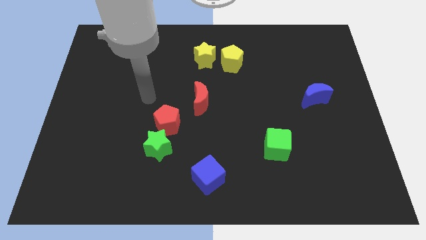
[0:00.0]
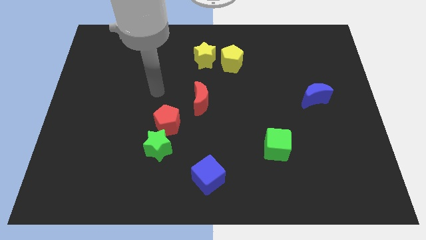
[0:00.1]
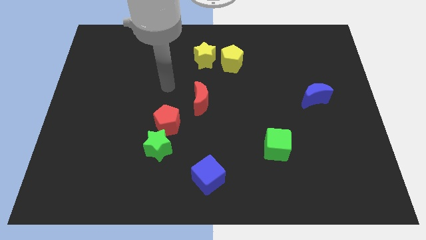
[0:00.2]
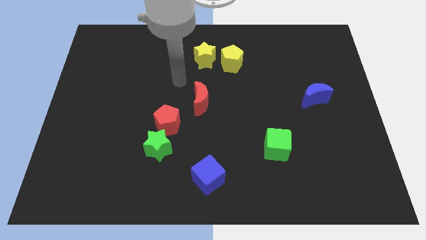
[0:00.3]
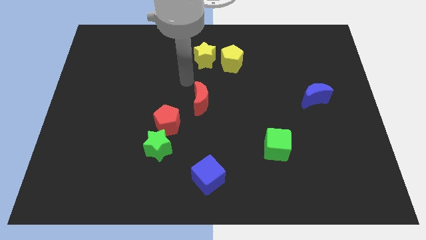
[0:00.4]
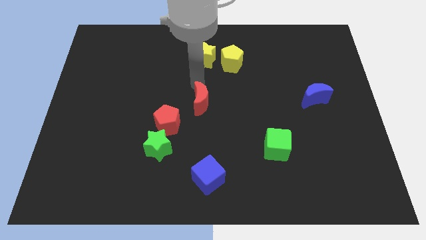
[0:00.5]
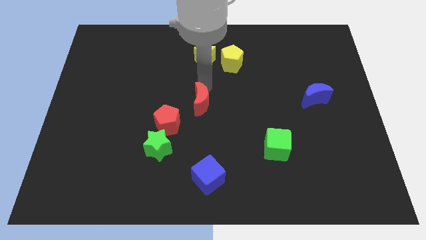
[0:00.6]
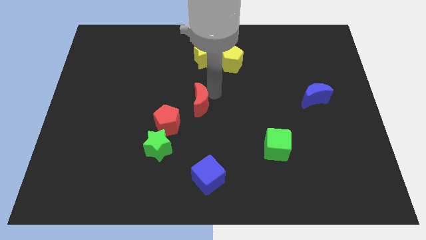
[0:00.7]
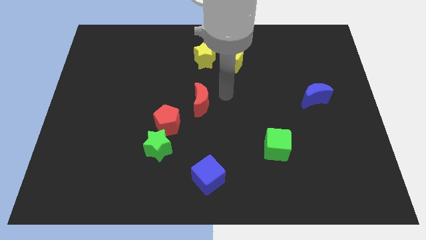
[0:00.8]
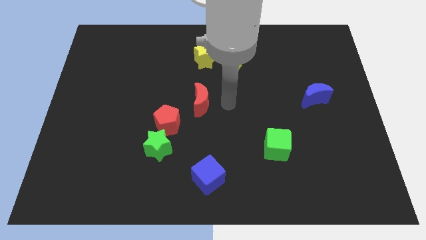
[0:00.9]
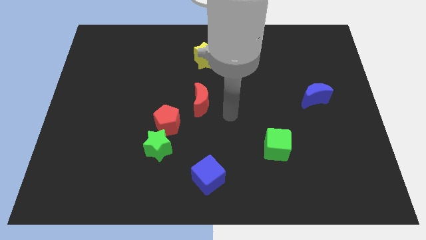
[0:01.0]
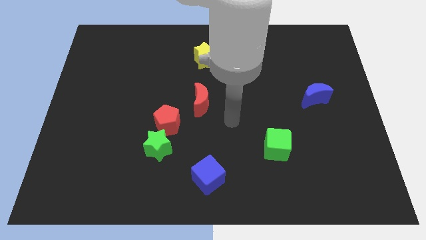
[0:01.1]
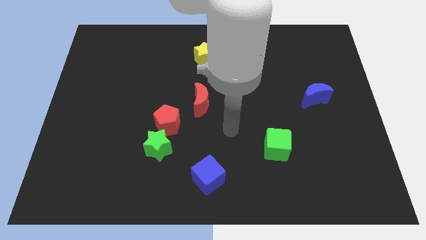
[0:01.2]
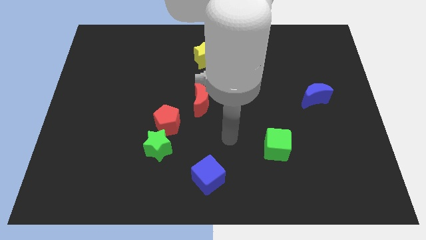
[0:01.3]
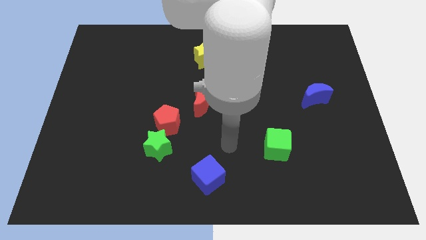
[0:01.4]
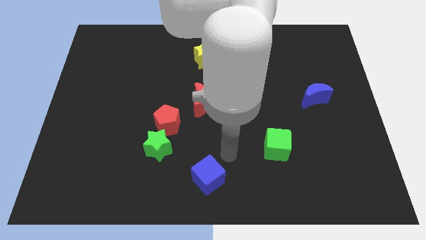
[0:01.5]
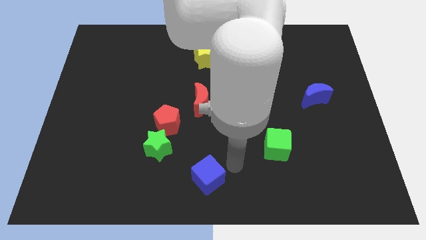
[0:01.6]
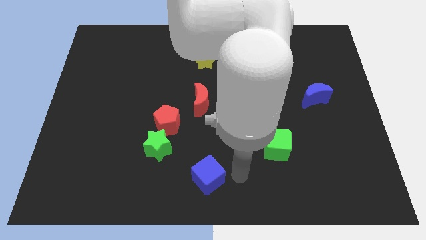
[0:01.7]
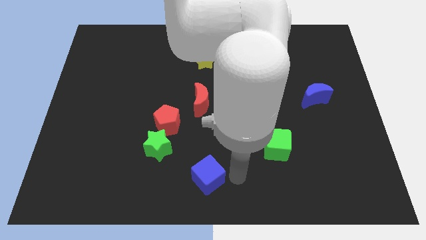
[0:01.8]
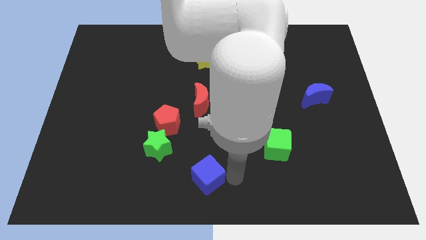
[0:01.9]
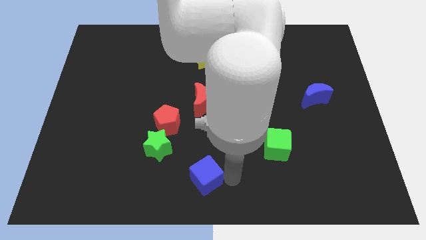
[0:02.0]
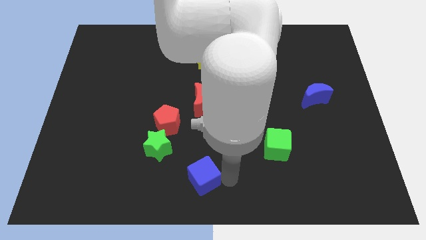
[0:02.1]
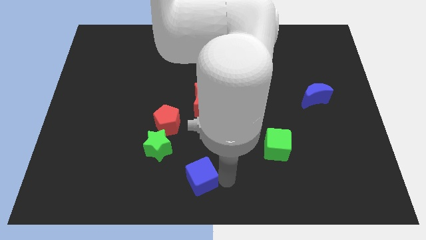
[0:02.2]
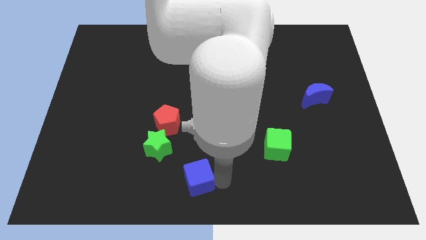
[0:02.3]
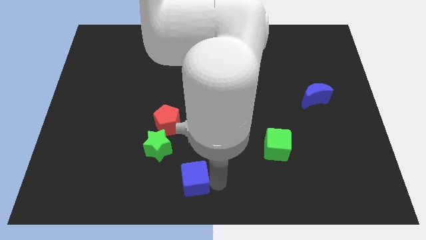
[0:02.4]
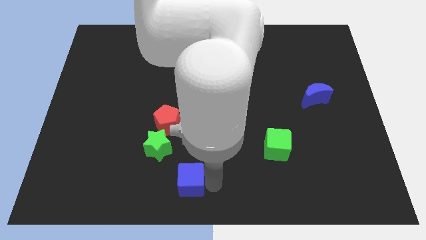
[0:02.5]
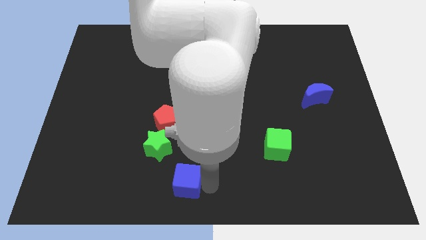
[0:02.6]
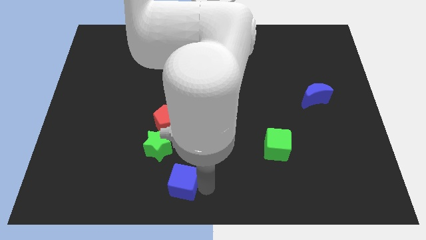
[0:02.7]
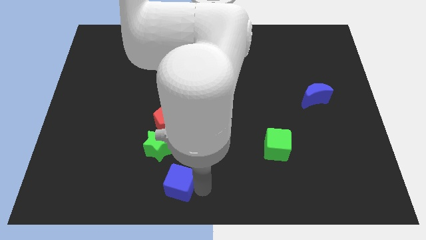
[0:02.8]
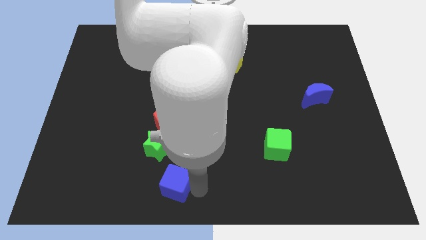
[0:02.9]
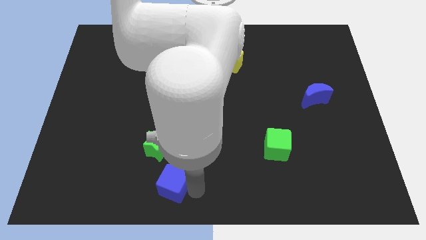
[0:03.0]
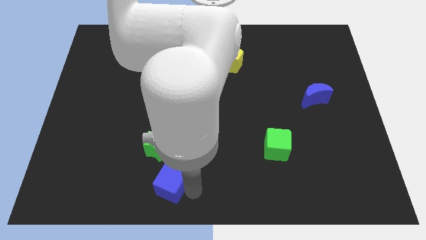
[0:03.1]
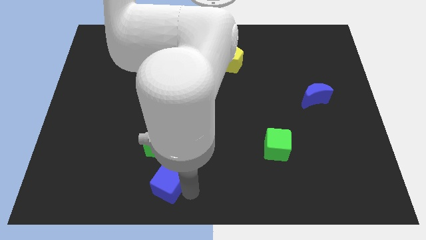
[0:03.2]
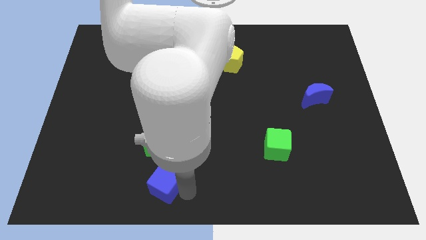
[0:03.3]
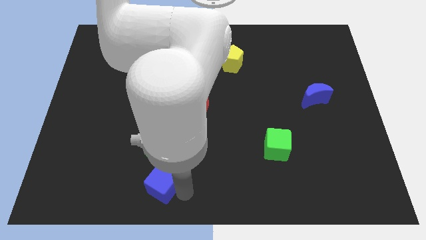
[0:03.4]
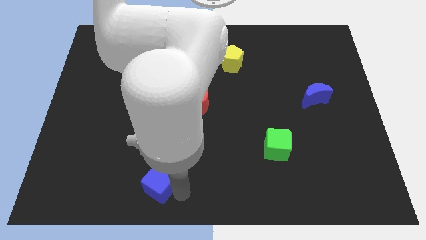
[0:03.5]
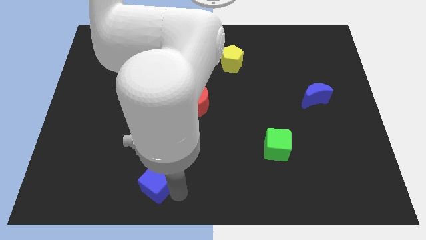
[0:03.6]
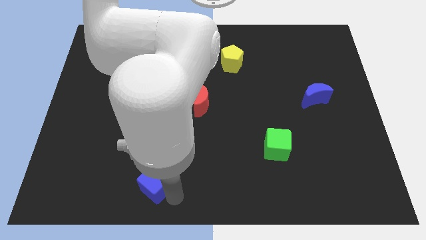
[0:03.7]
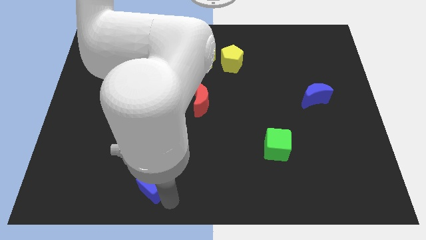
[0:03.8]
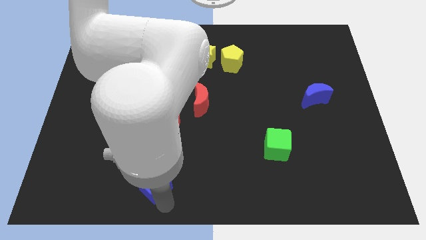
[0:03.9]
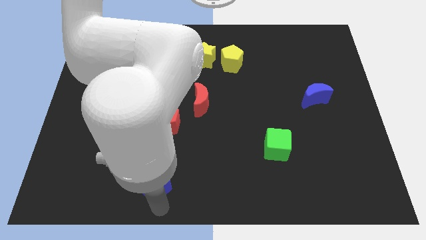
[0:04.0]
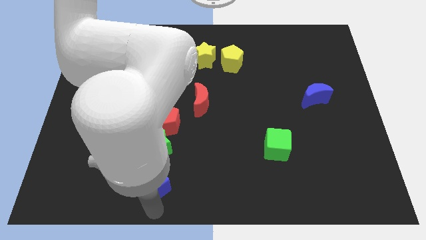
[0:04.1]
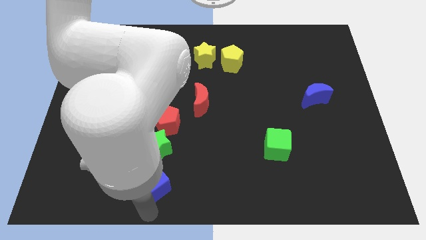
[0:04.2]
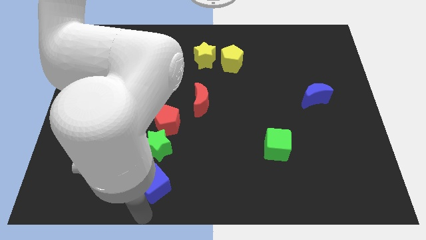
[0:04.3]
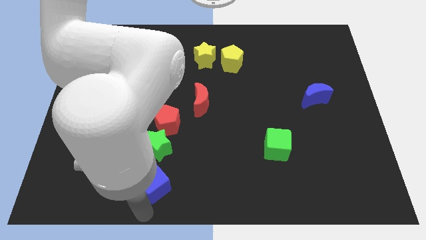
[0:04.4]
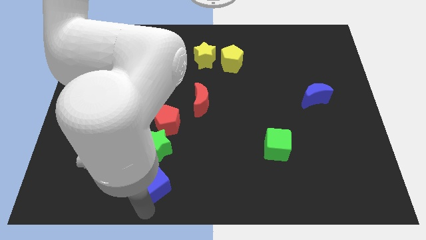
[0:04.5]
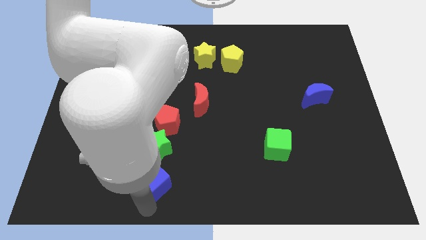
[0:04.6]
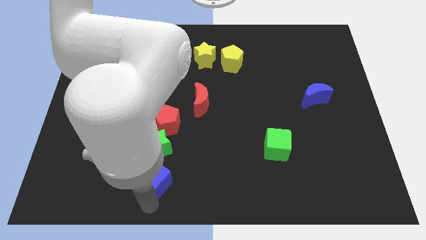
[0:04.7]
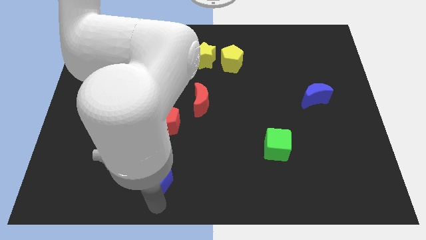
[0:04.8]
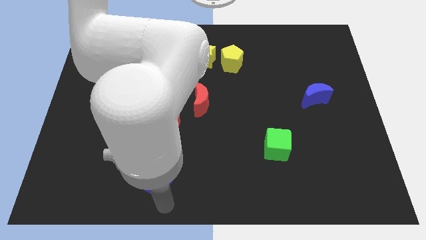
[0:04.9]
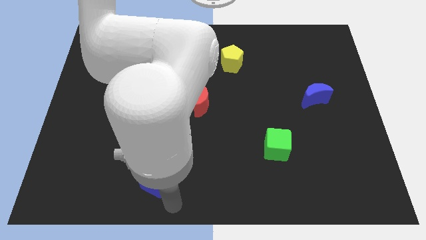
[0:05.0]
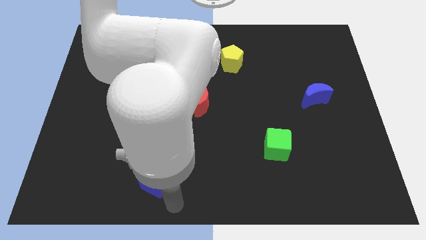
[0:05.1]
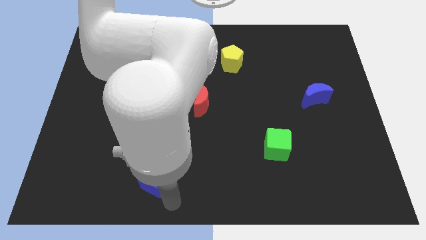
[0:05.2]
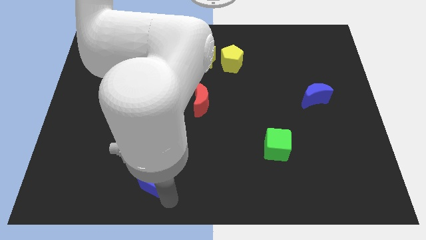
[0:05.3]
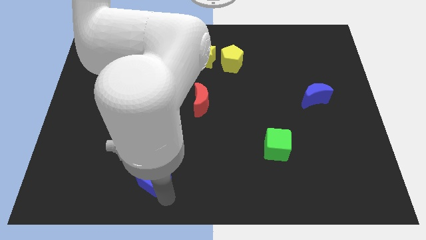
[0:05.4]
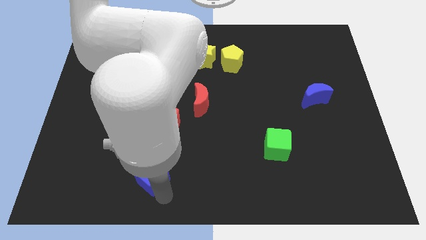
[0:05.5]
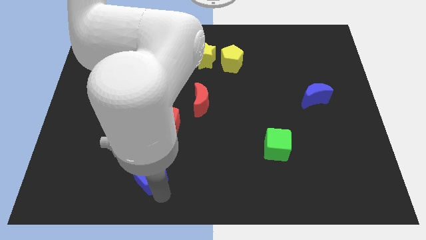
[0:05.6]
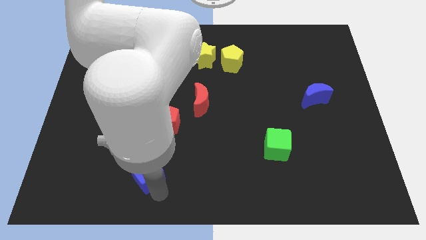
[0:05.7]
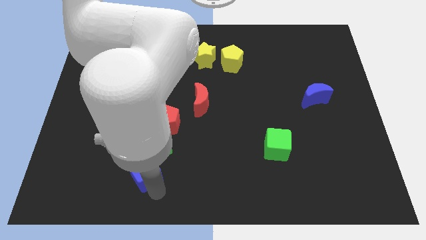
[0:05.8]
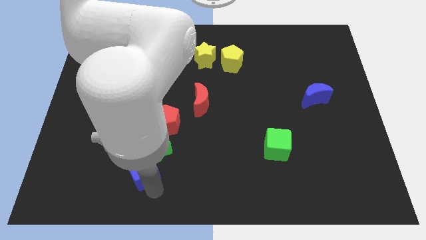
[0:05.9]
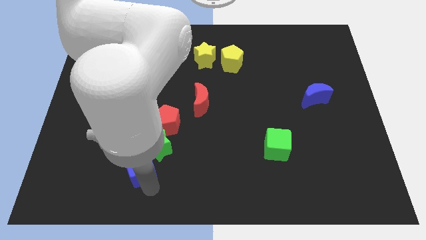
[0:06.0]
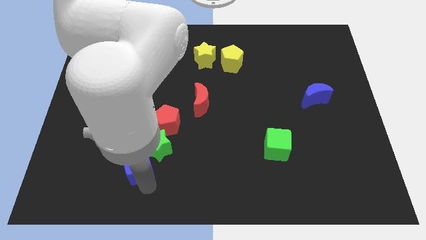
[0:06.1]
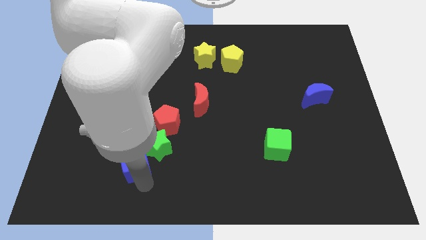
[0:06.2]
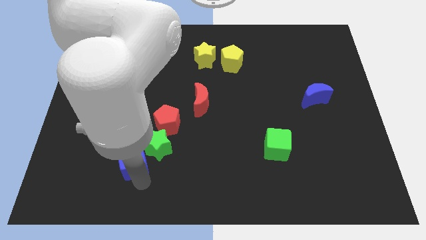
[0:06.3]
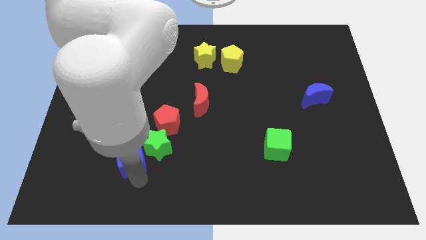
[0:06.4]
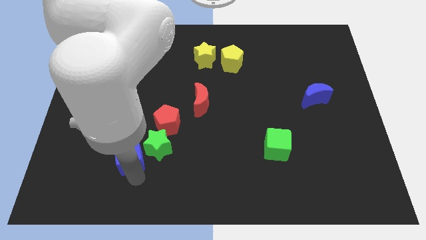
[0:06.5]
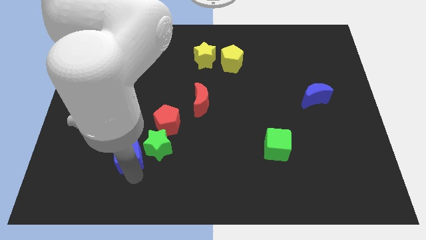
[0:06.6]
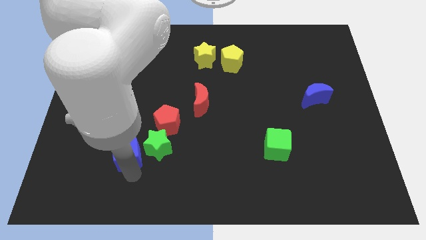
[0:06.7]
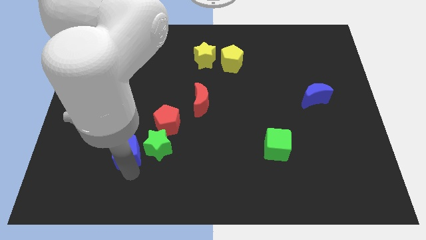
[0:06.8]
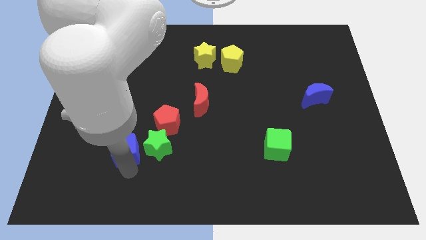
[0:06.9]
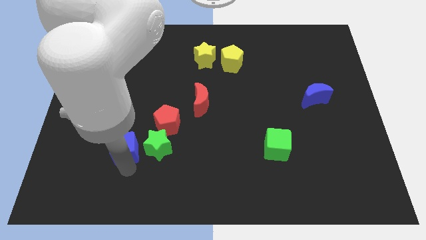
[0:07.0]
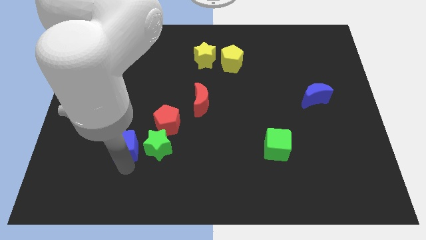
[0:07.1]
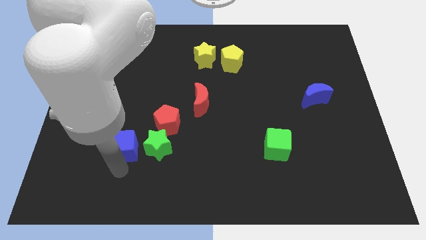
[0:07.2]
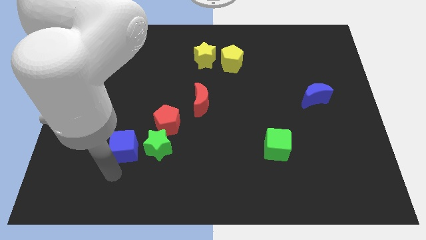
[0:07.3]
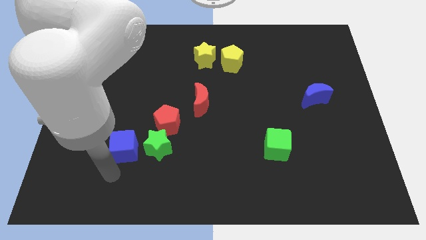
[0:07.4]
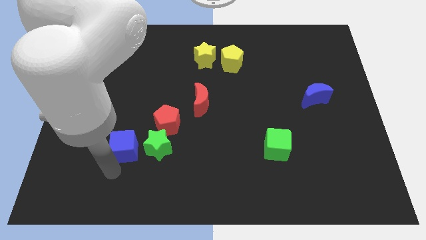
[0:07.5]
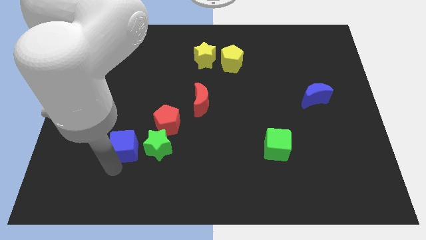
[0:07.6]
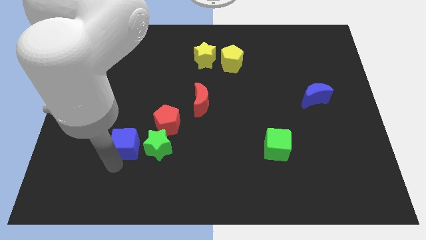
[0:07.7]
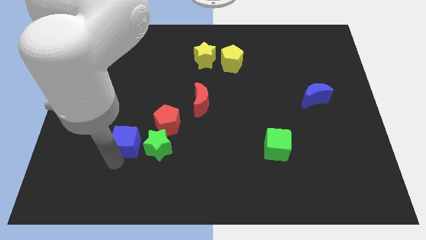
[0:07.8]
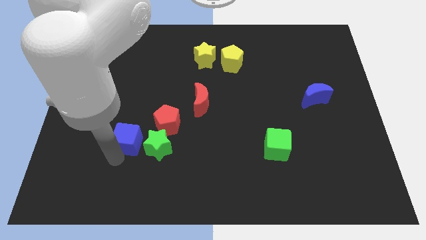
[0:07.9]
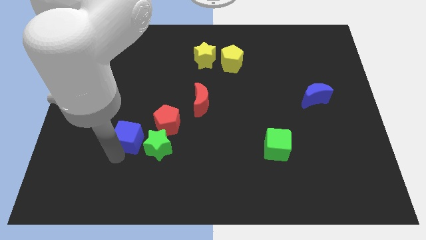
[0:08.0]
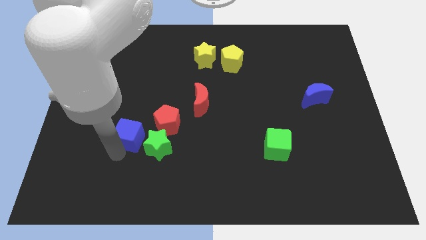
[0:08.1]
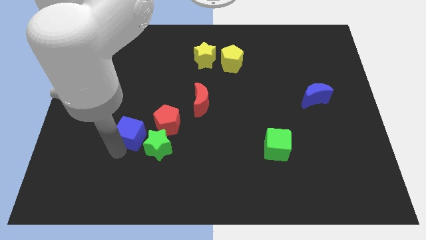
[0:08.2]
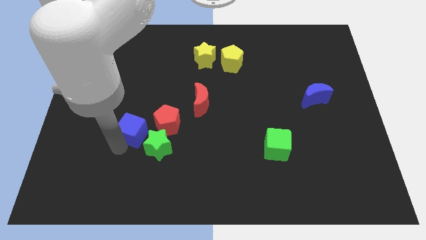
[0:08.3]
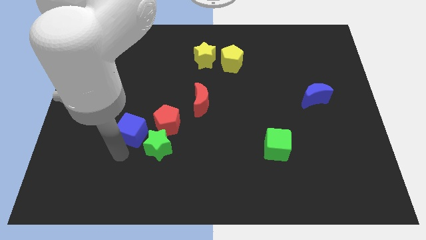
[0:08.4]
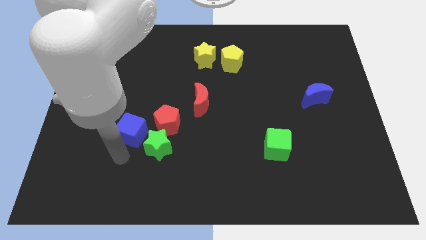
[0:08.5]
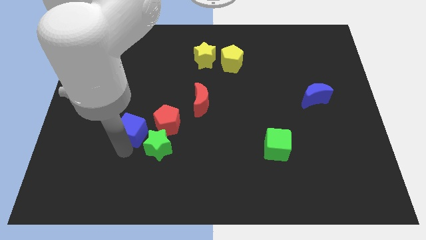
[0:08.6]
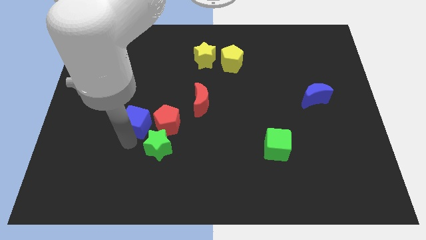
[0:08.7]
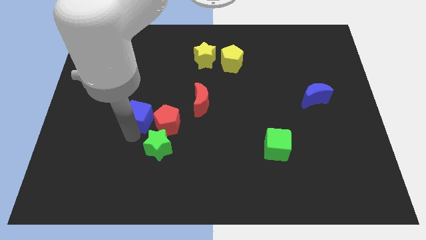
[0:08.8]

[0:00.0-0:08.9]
slide the blue cube to the top left of the red pentagon
